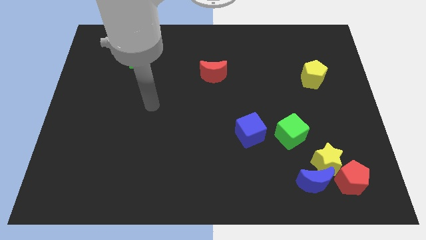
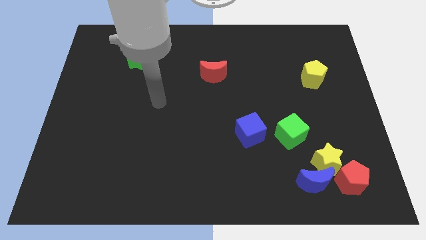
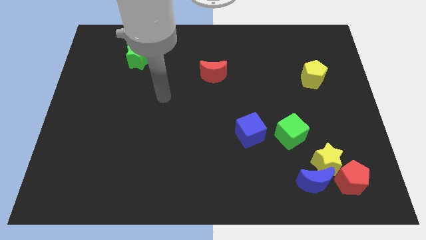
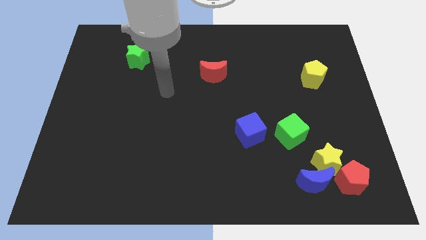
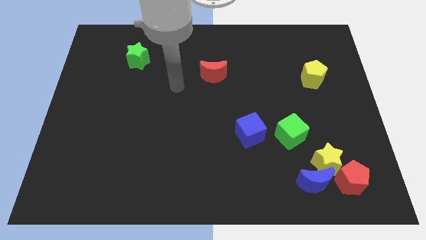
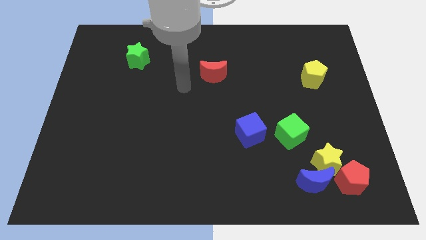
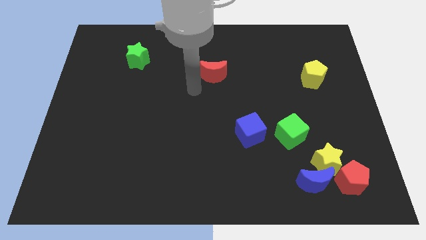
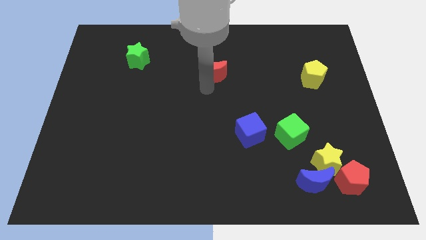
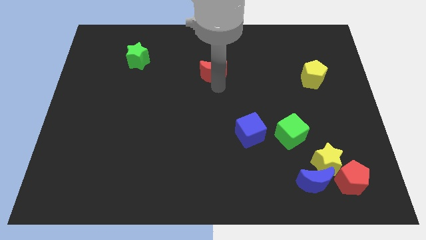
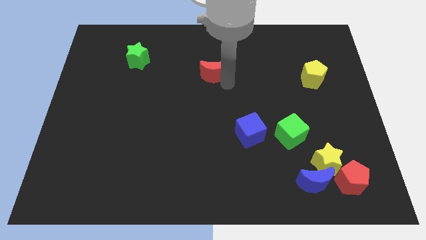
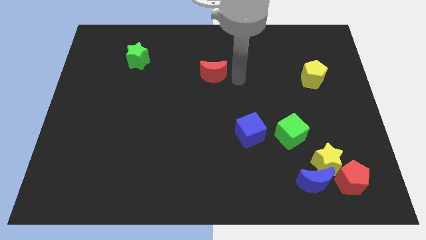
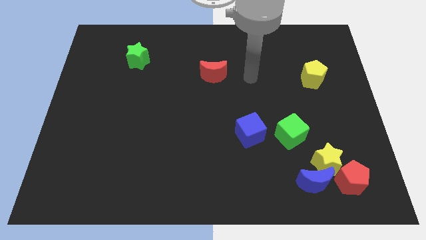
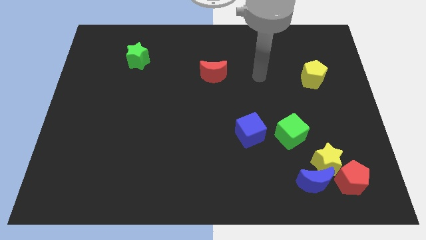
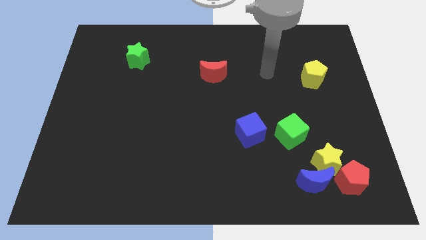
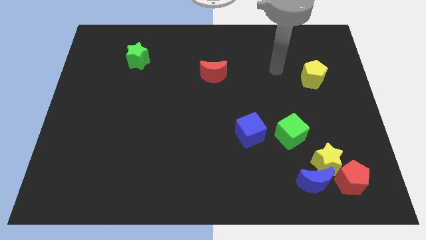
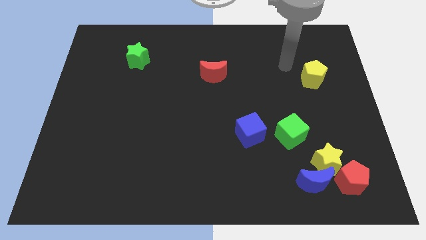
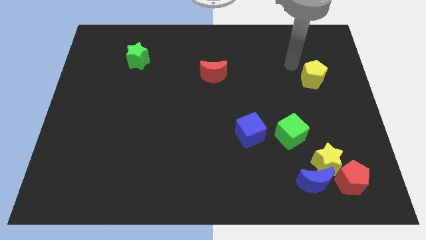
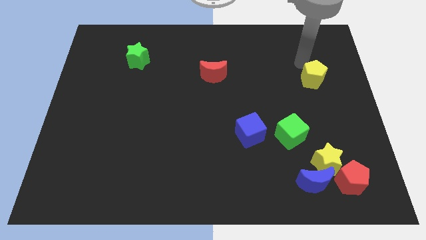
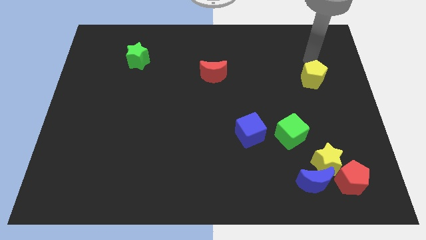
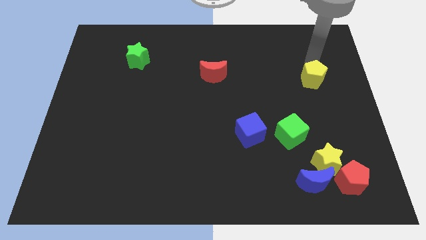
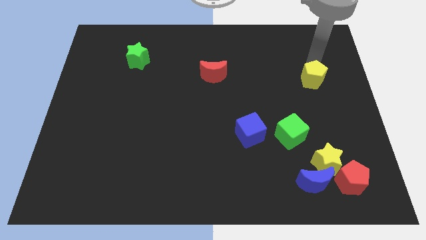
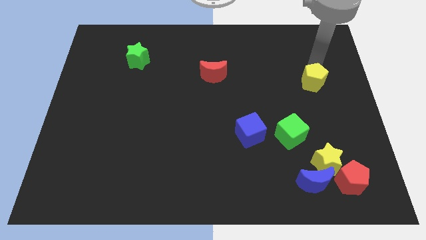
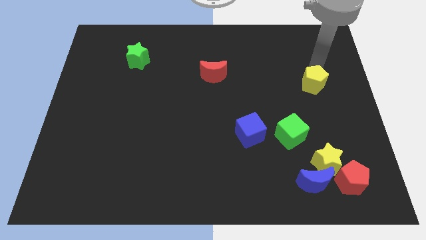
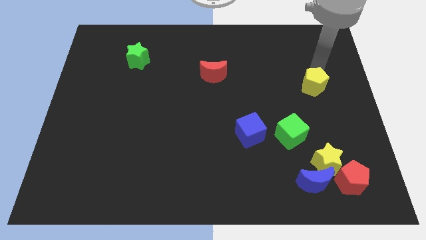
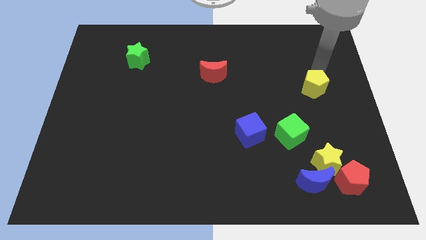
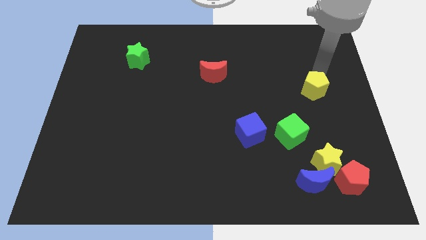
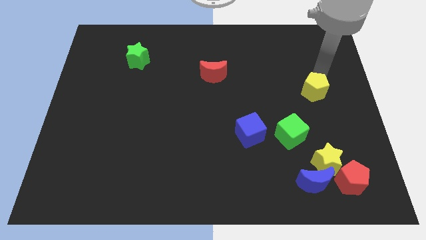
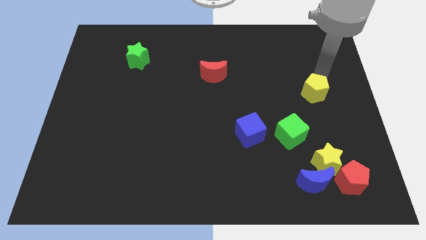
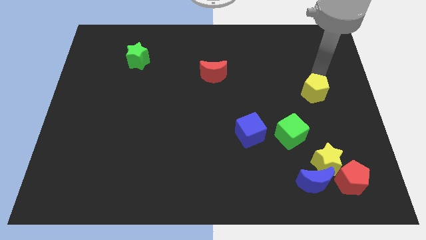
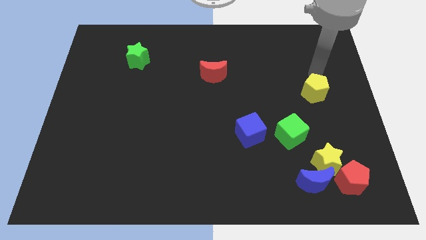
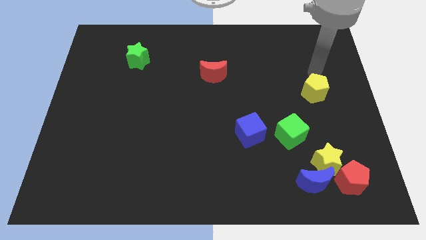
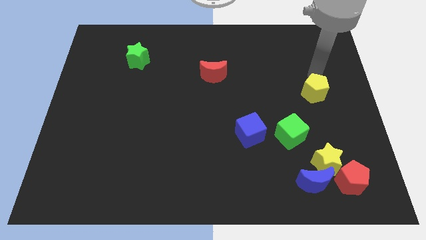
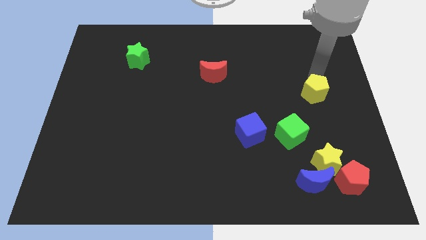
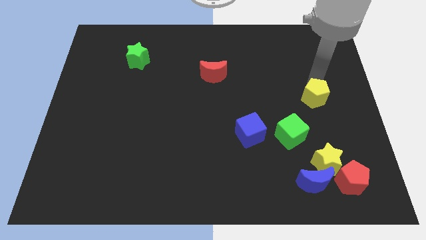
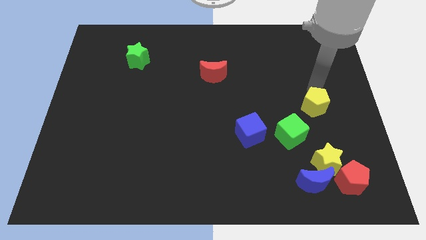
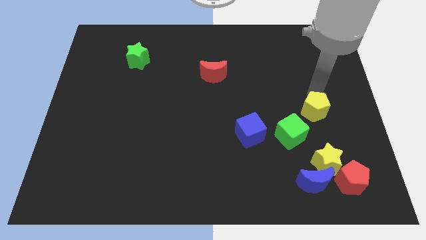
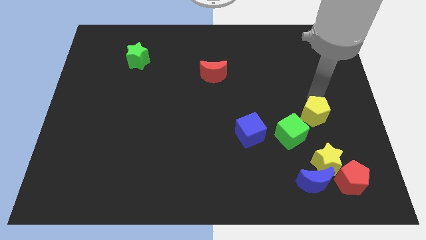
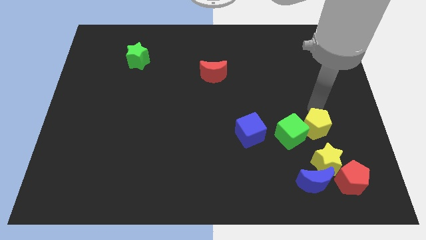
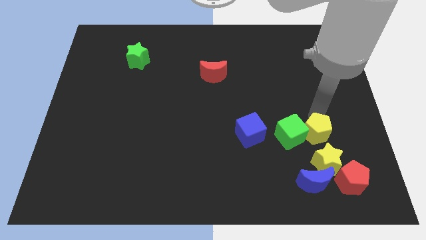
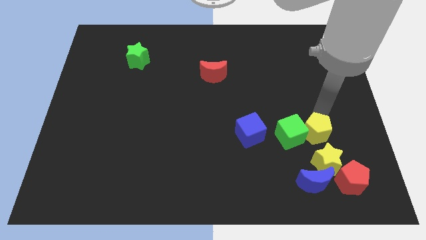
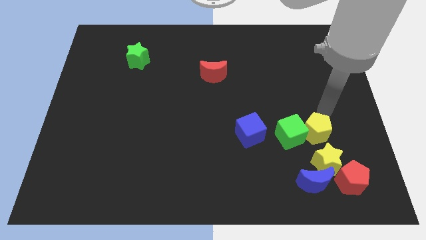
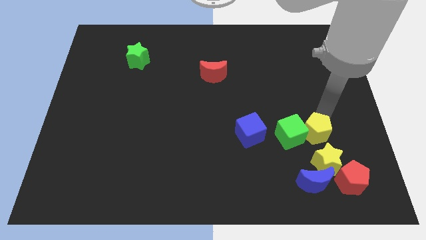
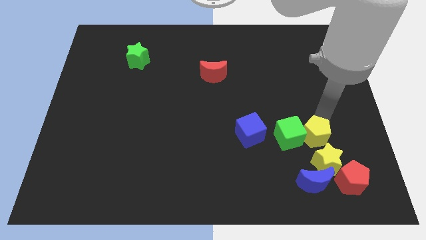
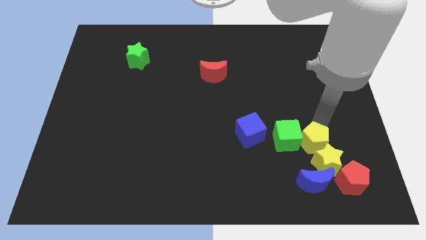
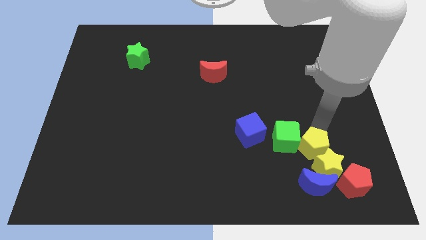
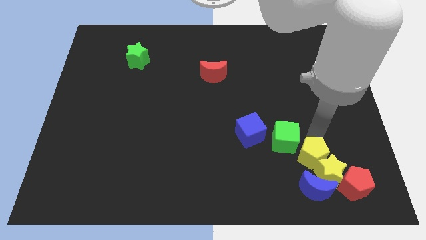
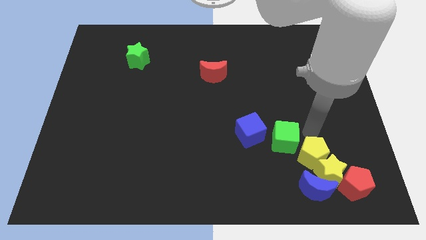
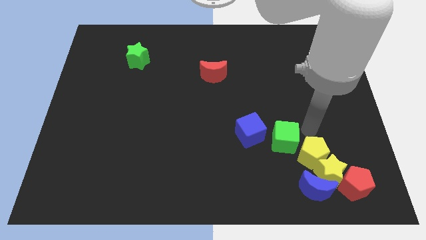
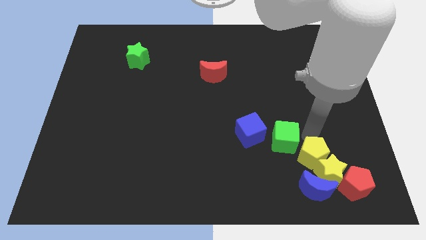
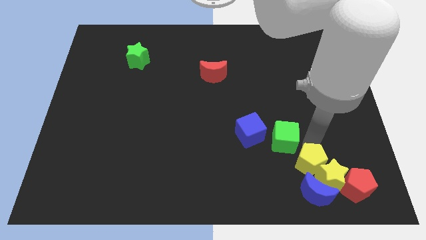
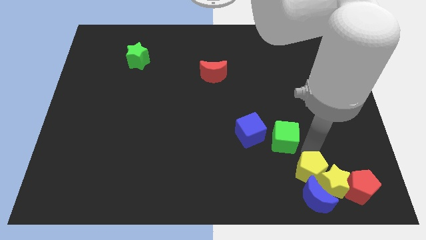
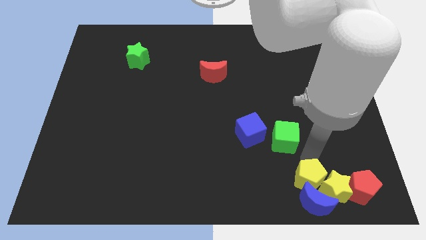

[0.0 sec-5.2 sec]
slide the yellow pentagon to the blue moon

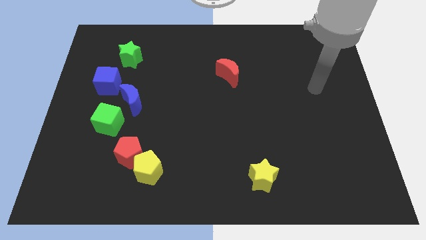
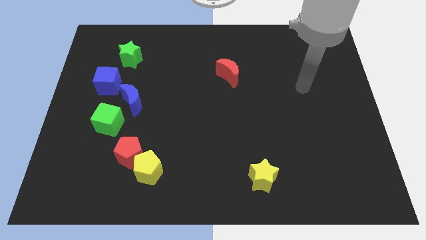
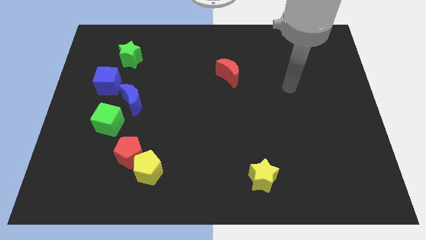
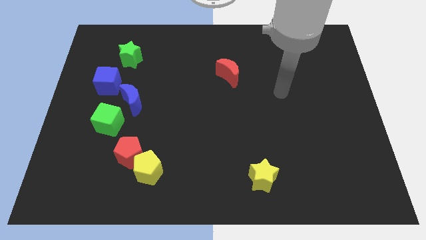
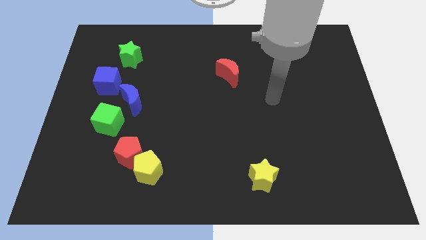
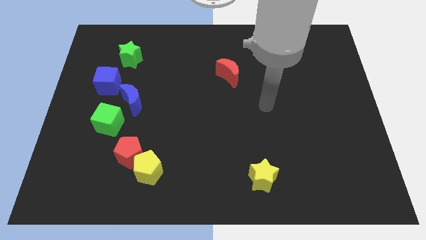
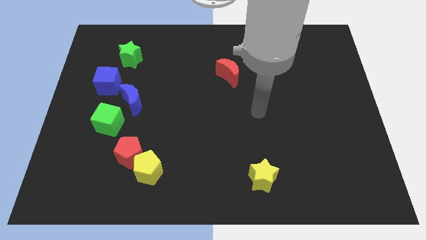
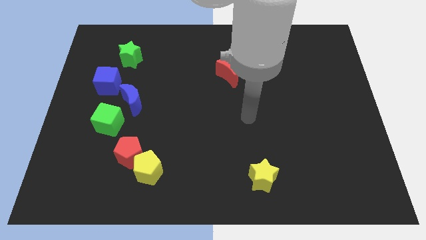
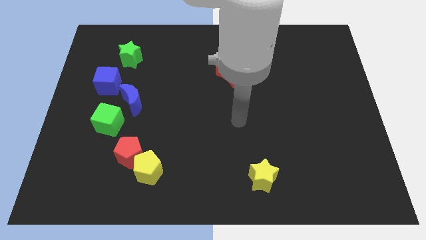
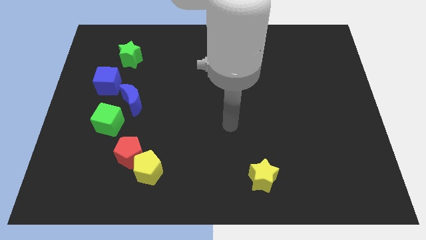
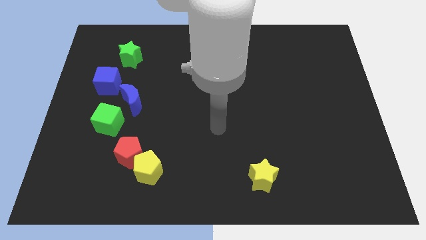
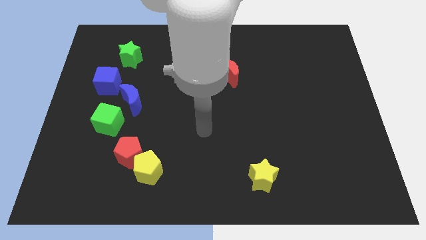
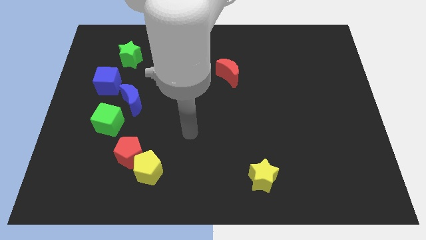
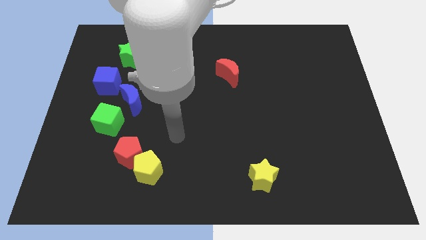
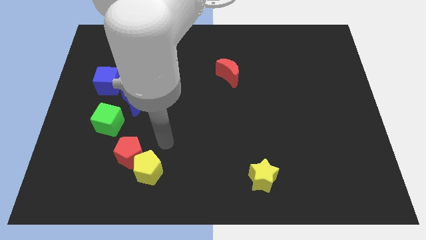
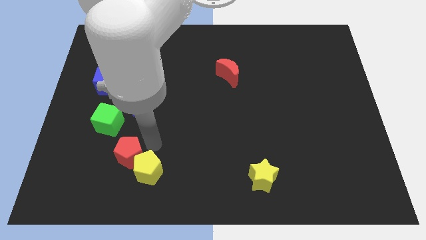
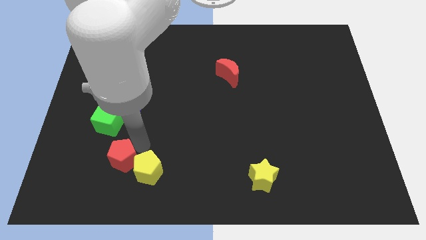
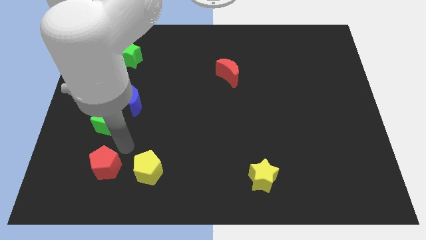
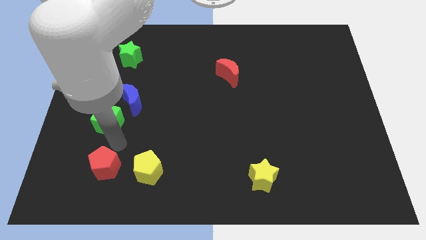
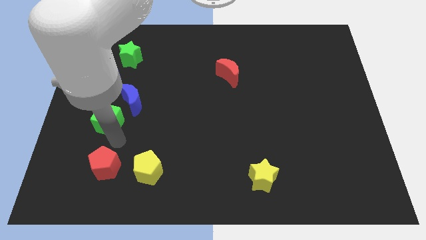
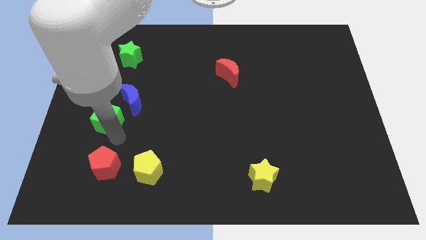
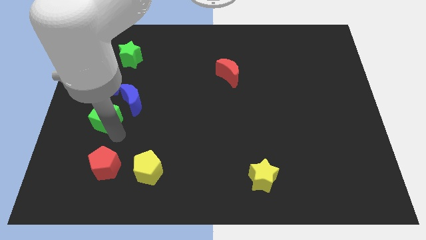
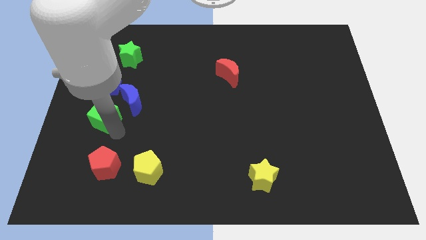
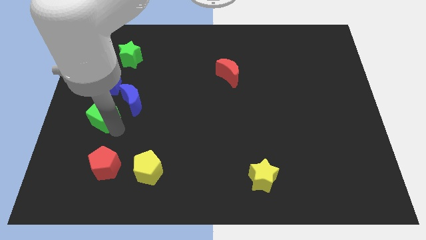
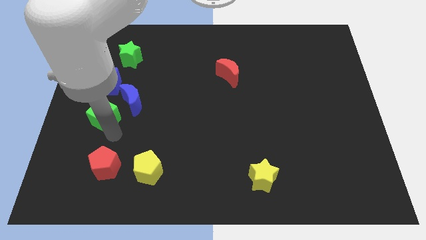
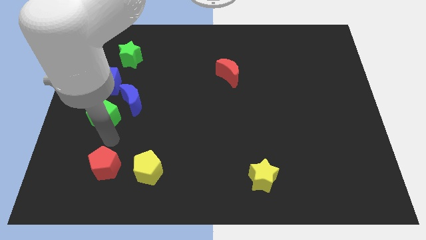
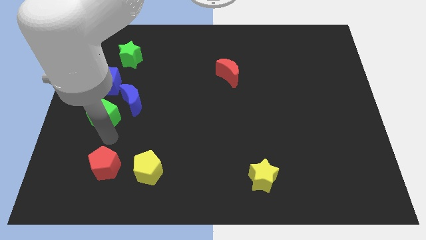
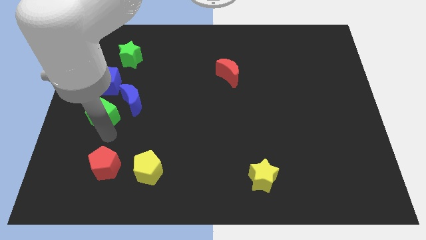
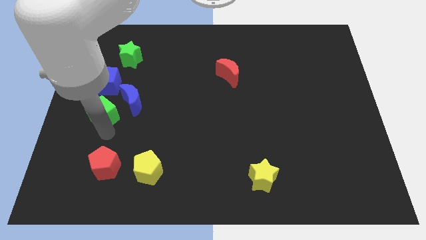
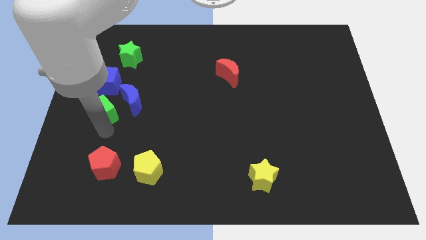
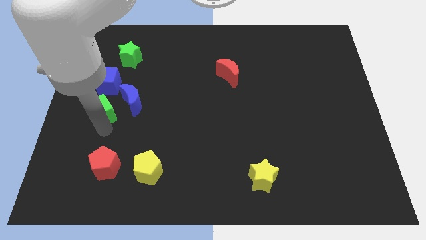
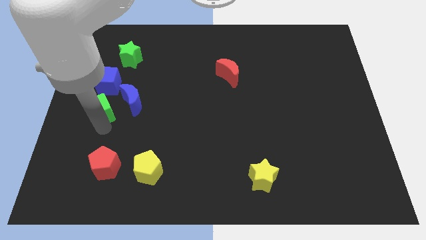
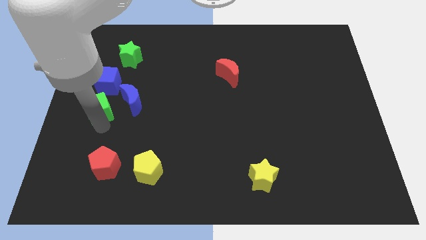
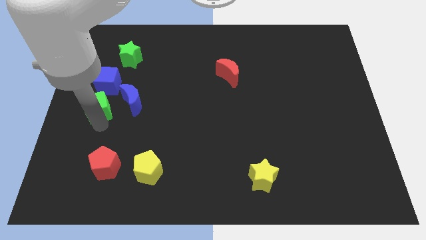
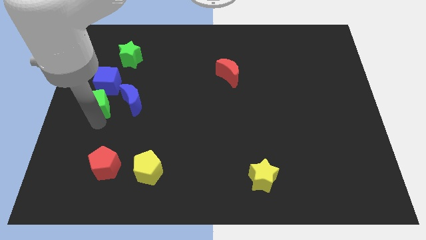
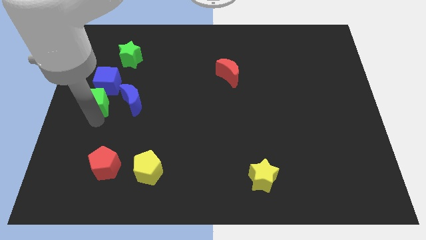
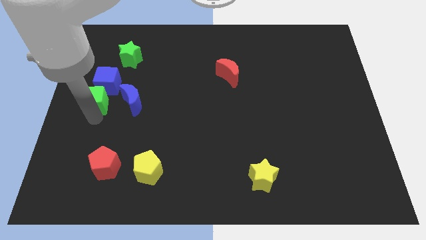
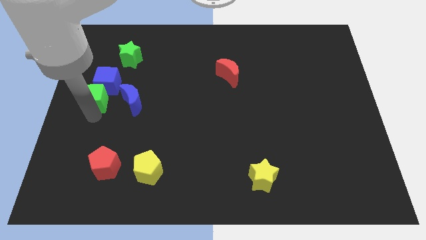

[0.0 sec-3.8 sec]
slide the green cube towards the blue cube
